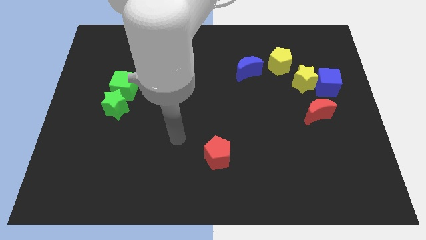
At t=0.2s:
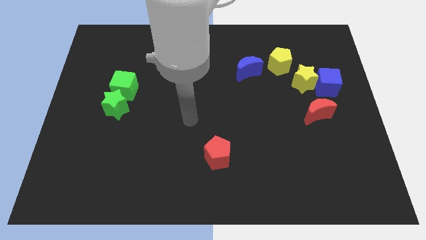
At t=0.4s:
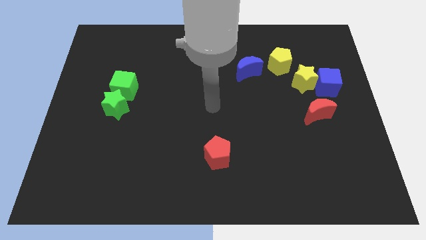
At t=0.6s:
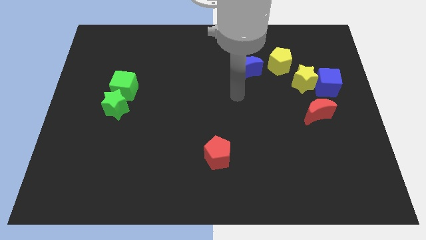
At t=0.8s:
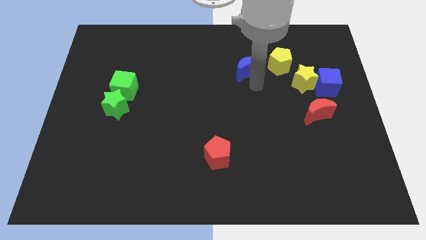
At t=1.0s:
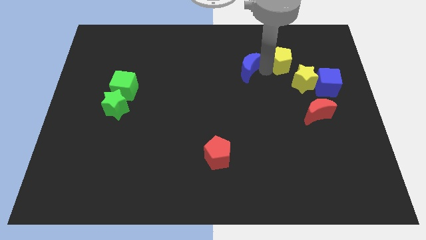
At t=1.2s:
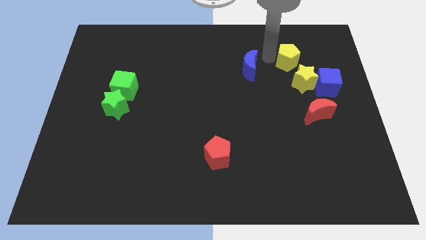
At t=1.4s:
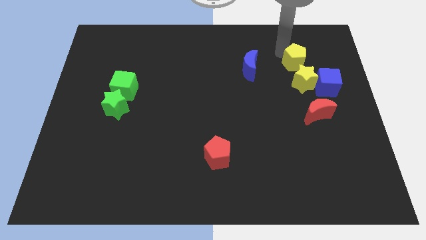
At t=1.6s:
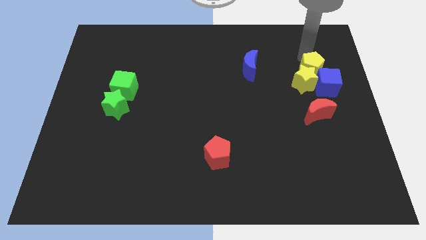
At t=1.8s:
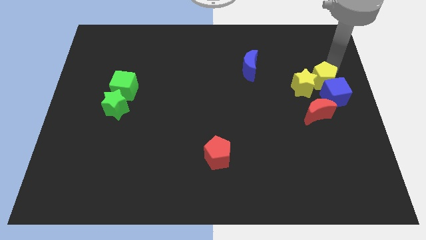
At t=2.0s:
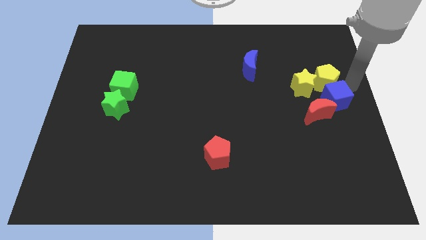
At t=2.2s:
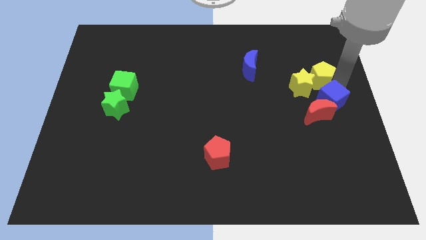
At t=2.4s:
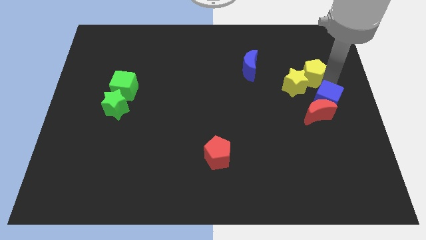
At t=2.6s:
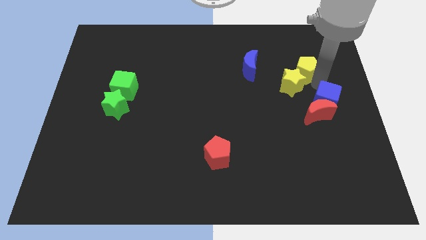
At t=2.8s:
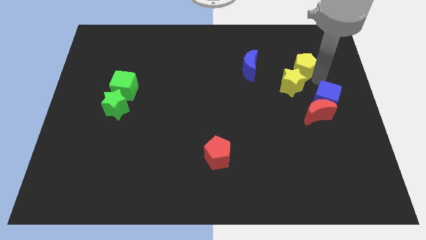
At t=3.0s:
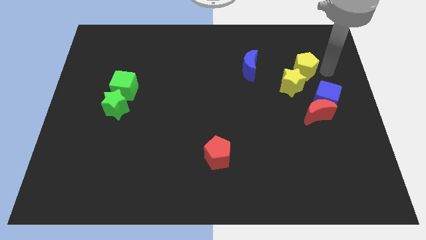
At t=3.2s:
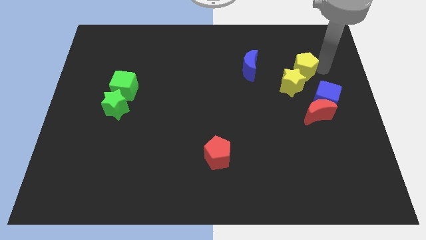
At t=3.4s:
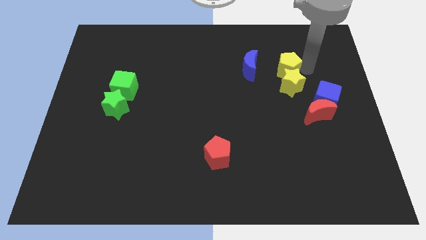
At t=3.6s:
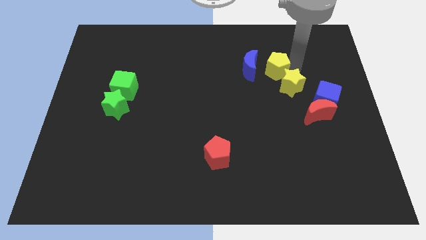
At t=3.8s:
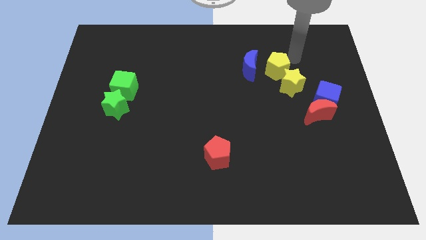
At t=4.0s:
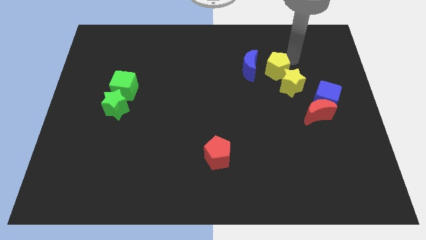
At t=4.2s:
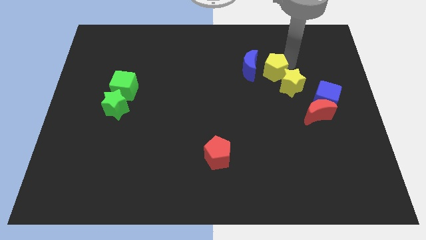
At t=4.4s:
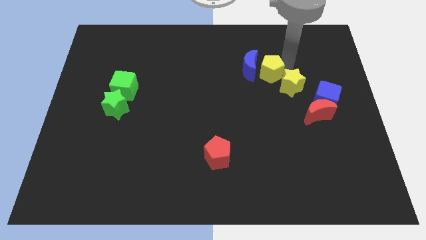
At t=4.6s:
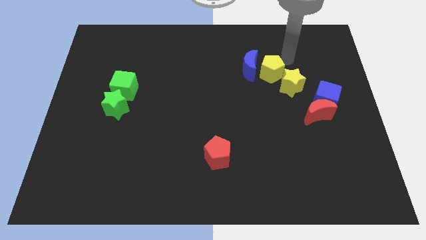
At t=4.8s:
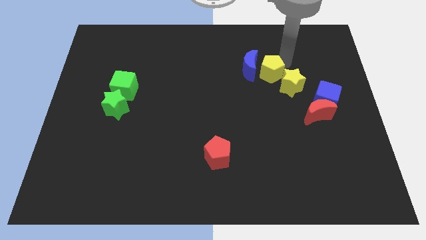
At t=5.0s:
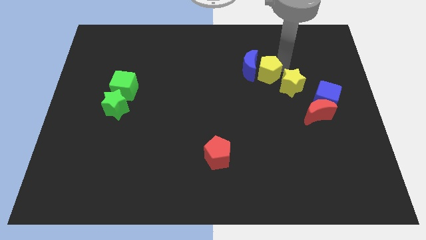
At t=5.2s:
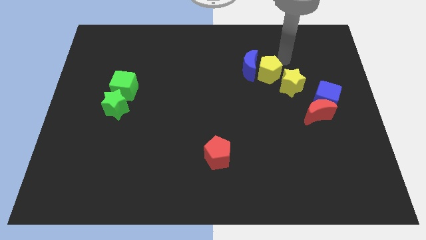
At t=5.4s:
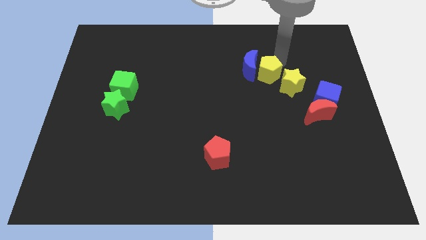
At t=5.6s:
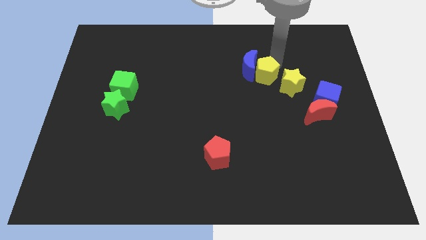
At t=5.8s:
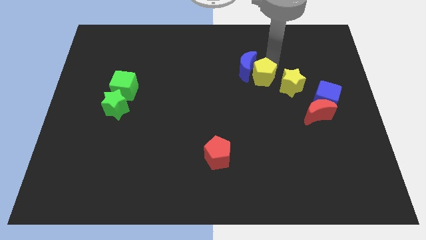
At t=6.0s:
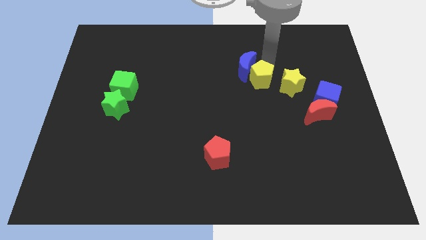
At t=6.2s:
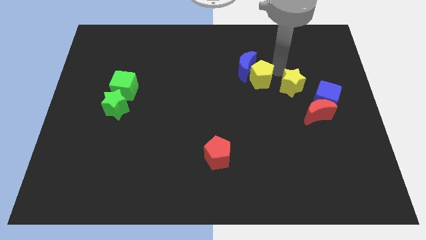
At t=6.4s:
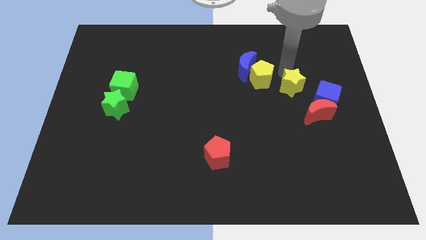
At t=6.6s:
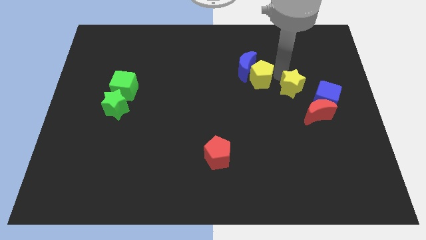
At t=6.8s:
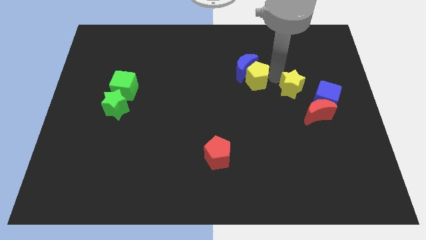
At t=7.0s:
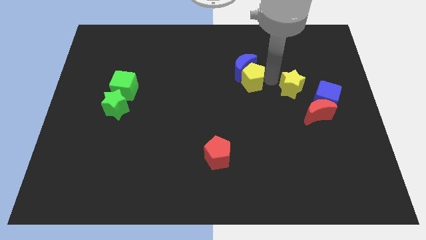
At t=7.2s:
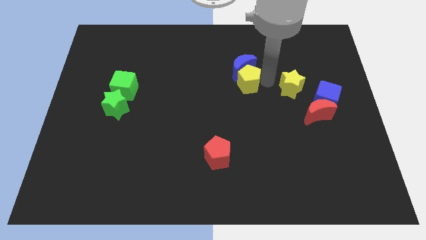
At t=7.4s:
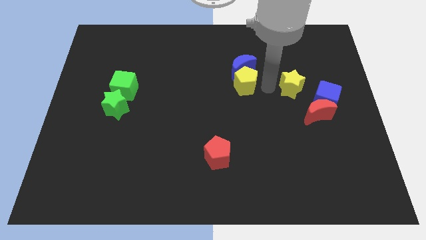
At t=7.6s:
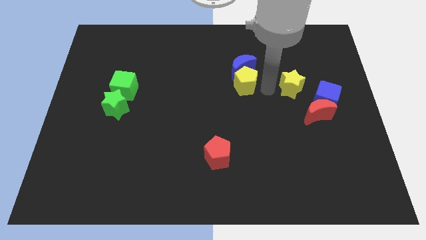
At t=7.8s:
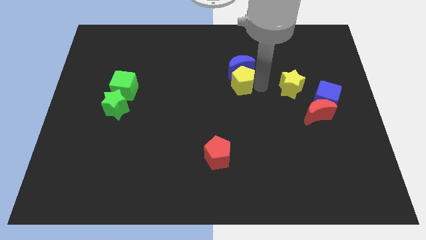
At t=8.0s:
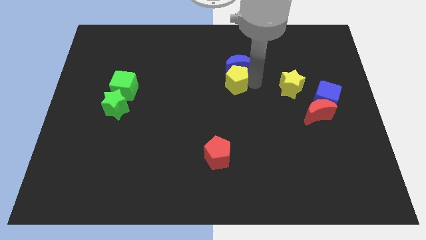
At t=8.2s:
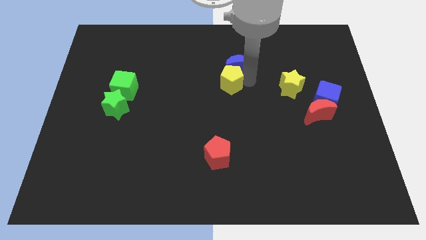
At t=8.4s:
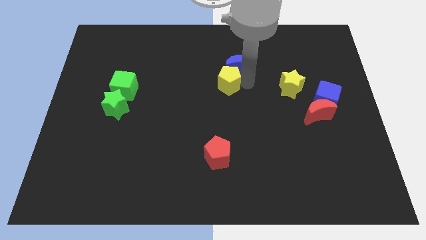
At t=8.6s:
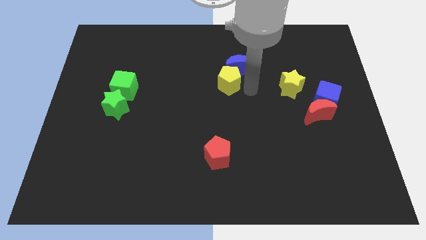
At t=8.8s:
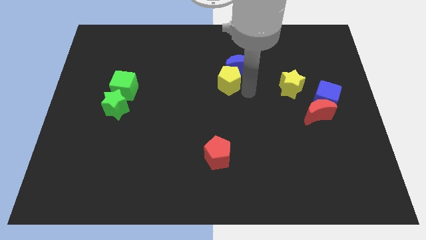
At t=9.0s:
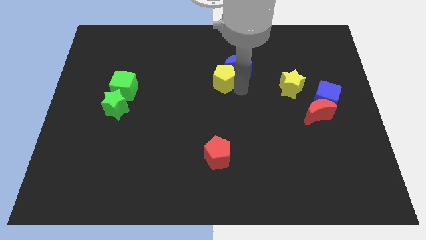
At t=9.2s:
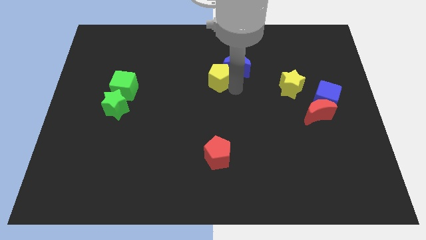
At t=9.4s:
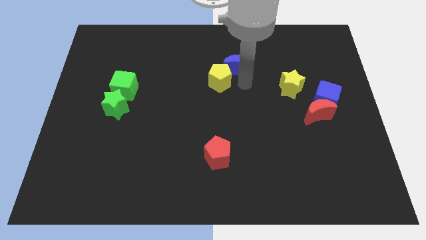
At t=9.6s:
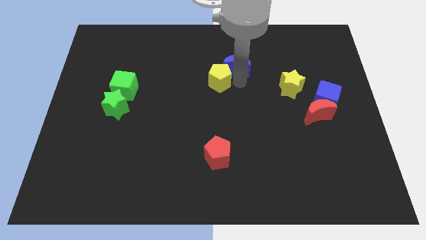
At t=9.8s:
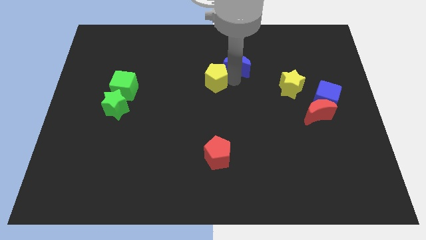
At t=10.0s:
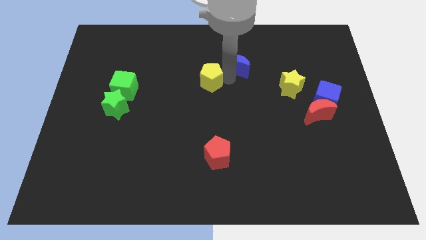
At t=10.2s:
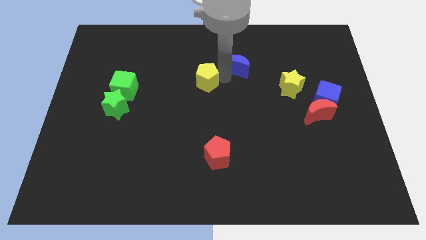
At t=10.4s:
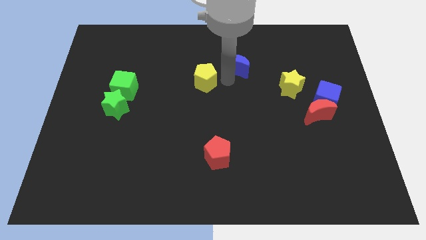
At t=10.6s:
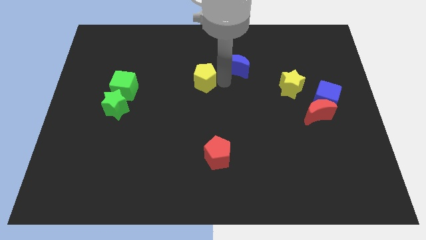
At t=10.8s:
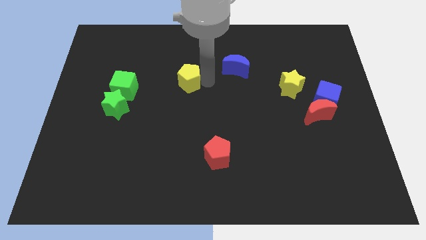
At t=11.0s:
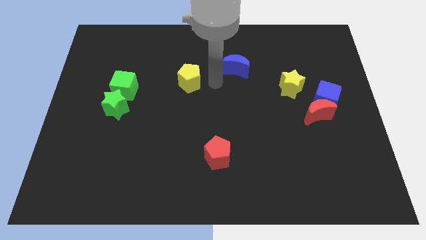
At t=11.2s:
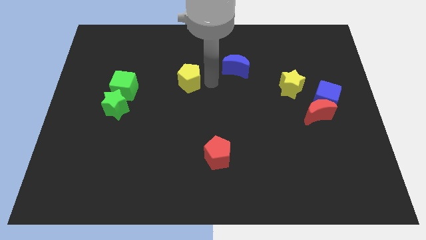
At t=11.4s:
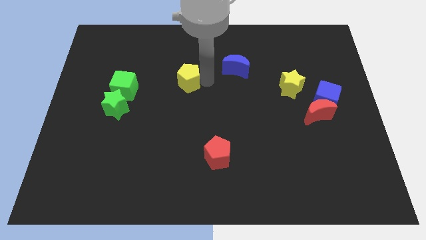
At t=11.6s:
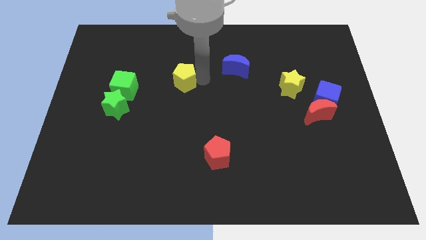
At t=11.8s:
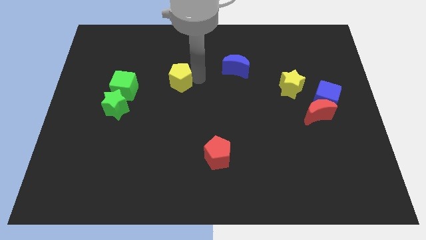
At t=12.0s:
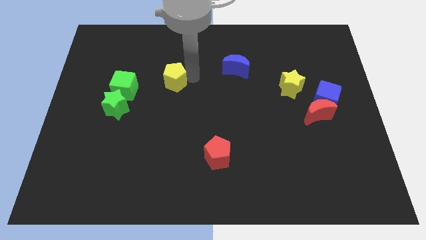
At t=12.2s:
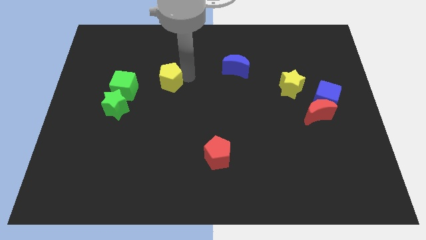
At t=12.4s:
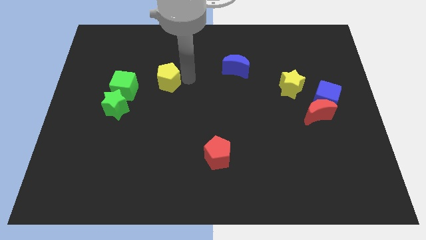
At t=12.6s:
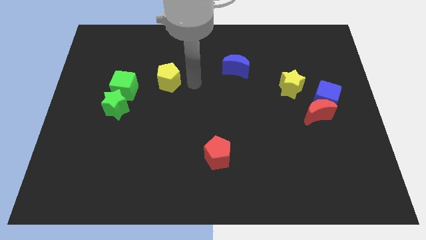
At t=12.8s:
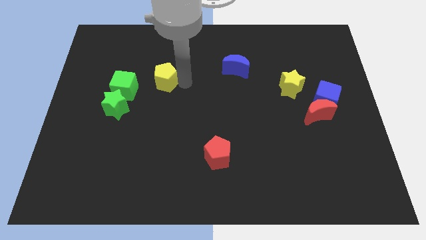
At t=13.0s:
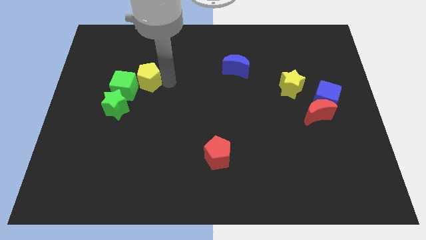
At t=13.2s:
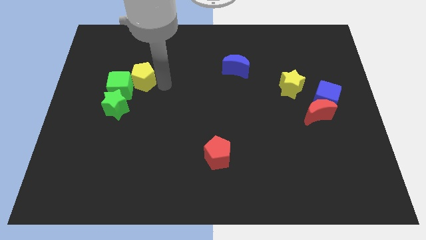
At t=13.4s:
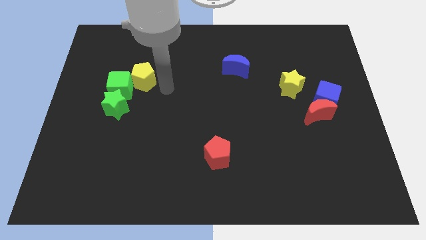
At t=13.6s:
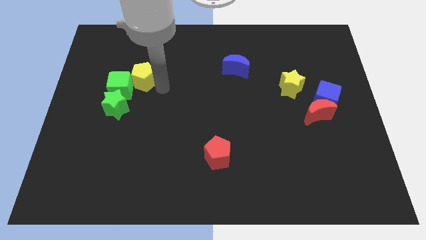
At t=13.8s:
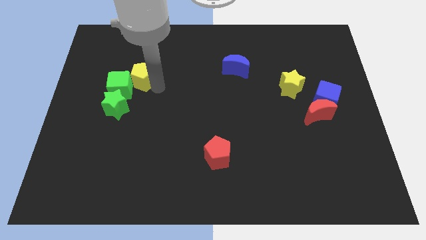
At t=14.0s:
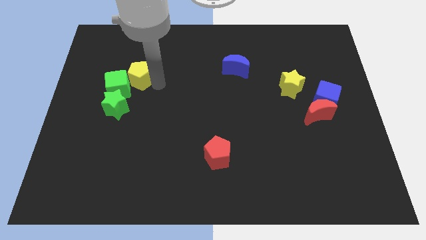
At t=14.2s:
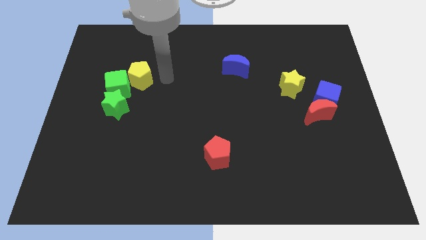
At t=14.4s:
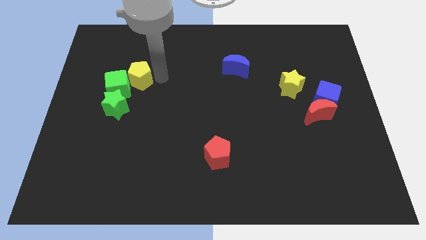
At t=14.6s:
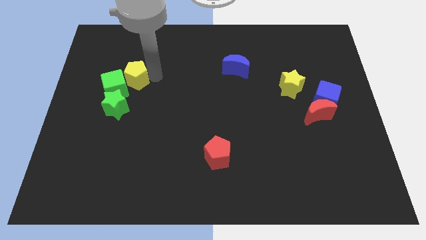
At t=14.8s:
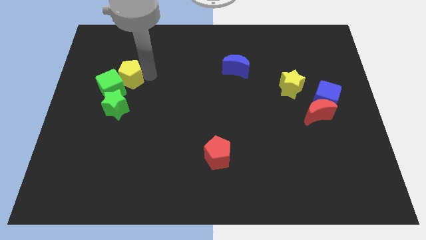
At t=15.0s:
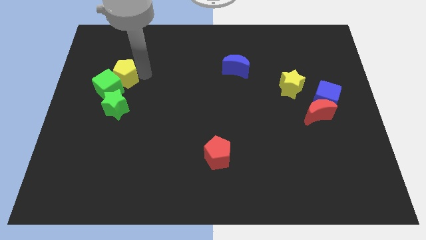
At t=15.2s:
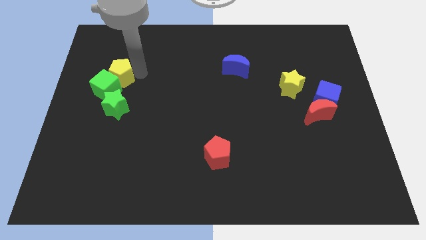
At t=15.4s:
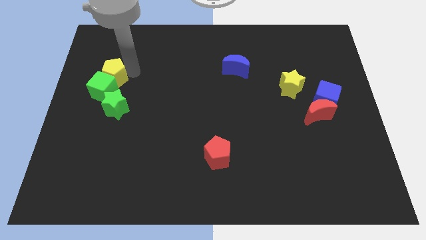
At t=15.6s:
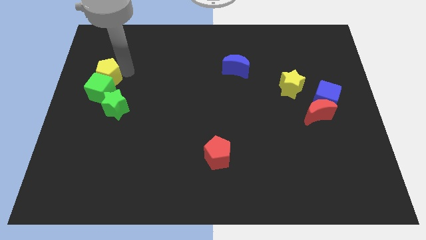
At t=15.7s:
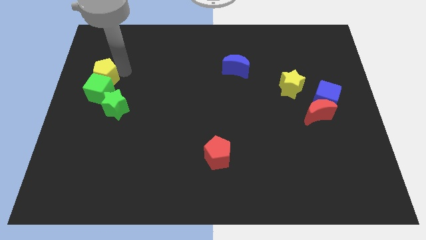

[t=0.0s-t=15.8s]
slide the yellow pentagon to the left side of the board

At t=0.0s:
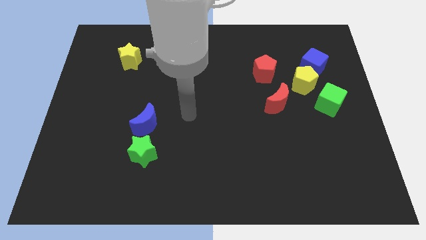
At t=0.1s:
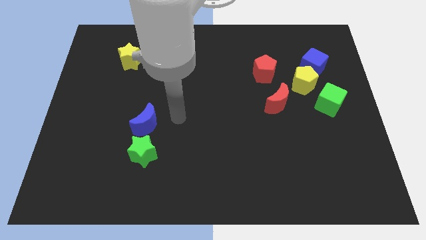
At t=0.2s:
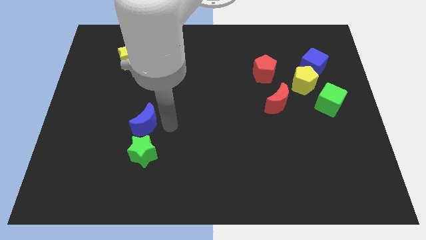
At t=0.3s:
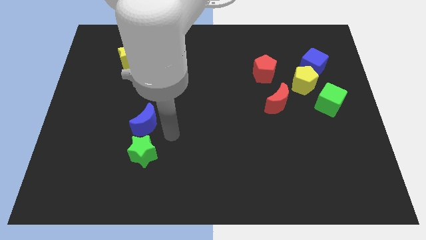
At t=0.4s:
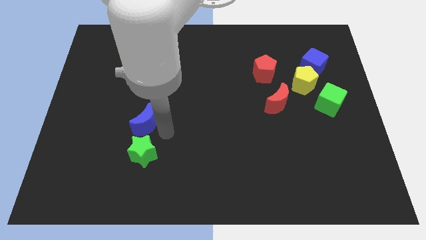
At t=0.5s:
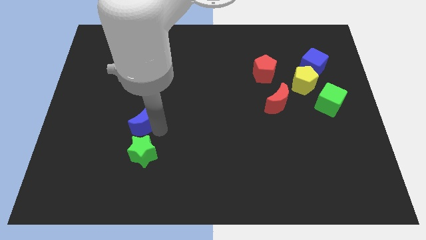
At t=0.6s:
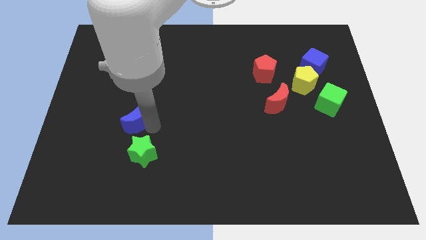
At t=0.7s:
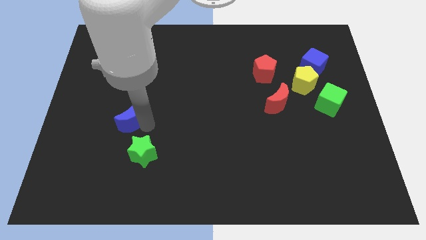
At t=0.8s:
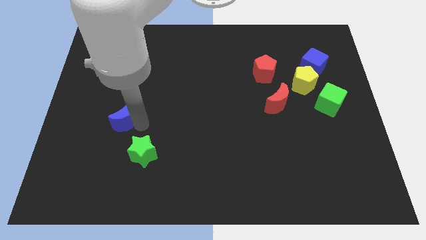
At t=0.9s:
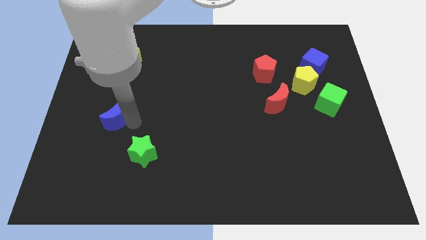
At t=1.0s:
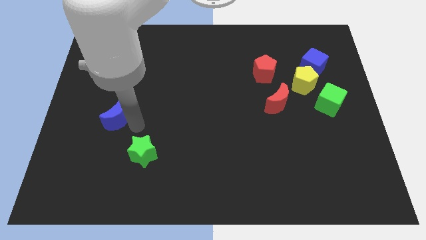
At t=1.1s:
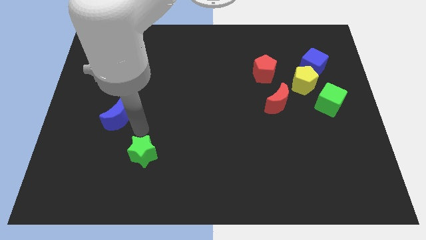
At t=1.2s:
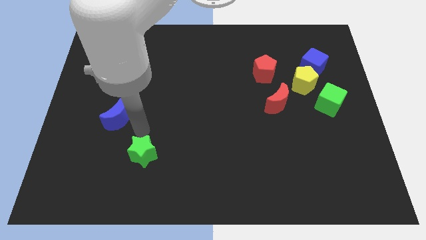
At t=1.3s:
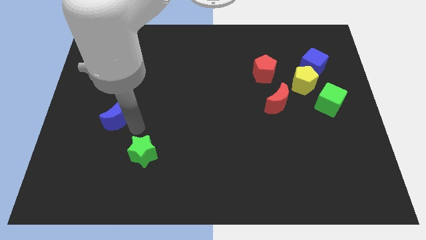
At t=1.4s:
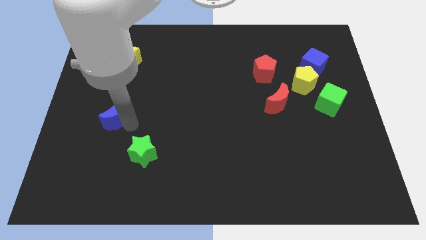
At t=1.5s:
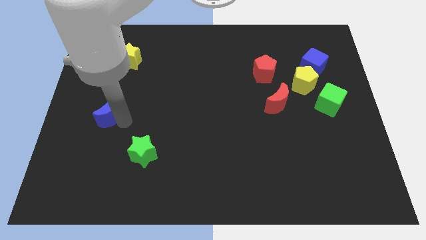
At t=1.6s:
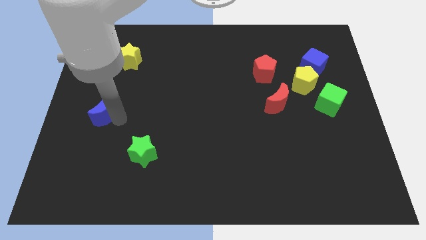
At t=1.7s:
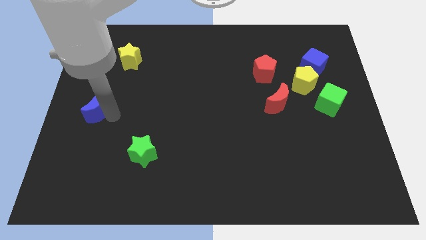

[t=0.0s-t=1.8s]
put the blue moon to the center left
